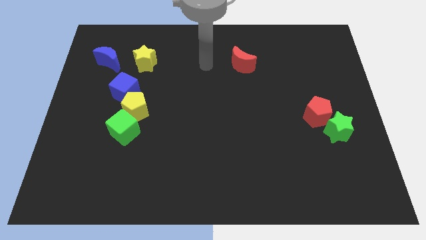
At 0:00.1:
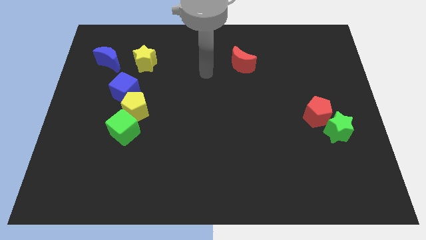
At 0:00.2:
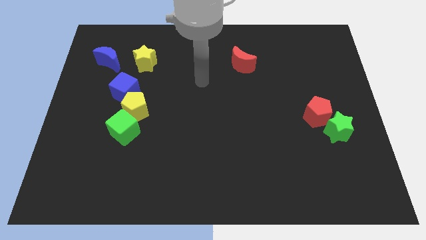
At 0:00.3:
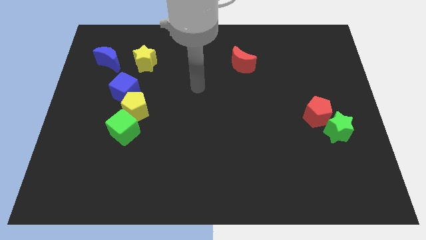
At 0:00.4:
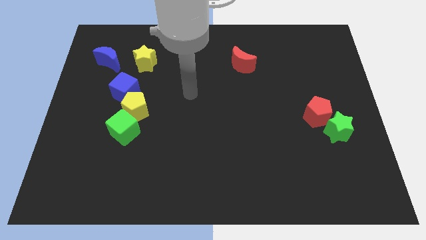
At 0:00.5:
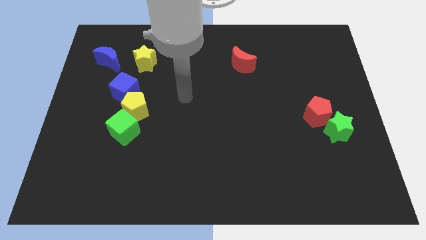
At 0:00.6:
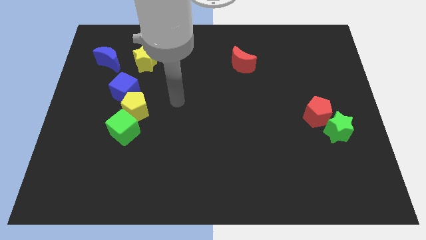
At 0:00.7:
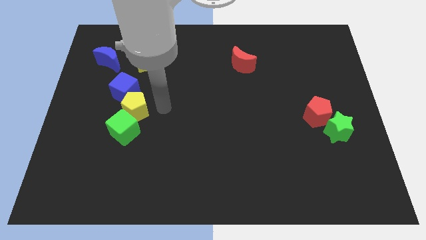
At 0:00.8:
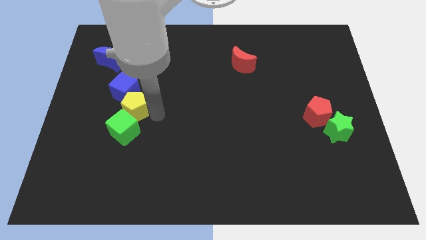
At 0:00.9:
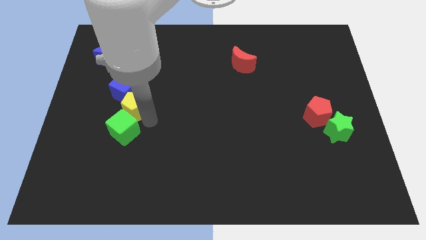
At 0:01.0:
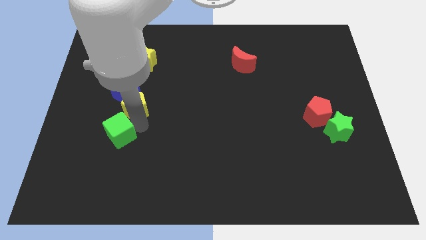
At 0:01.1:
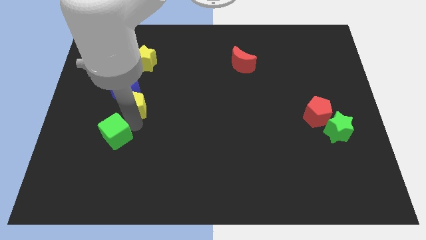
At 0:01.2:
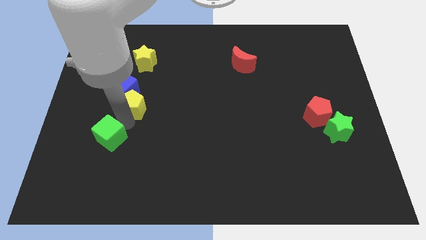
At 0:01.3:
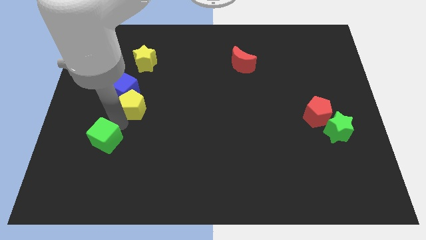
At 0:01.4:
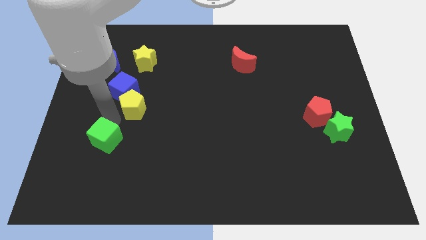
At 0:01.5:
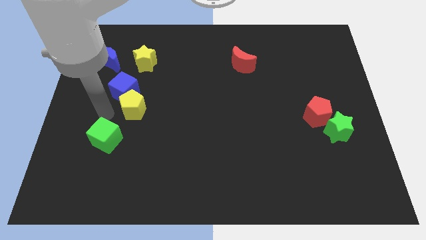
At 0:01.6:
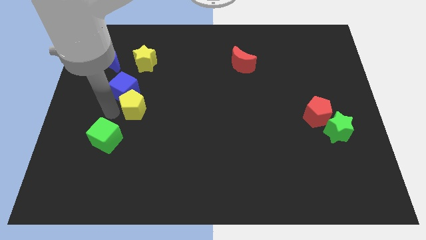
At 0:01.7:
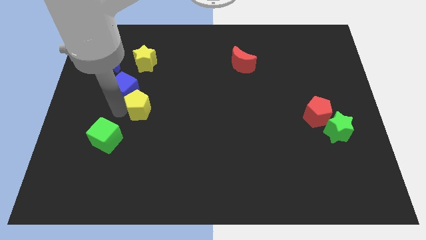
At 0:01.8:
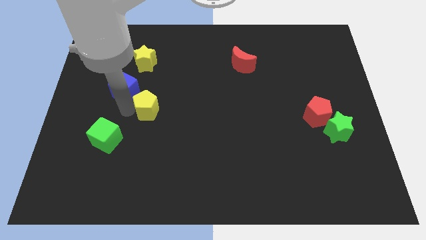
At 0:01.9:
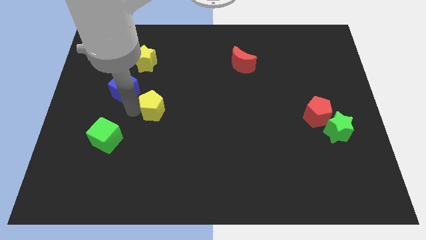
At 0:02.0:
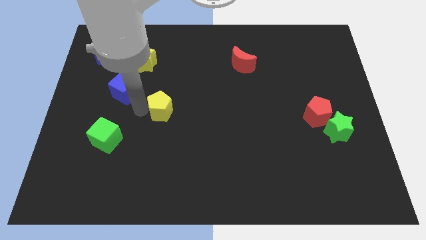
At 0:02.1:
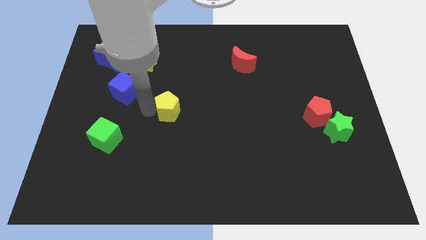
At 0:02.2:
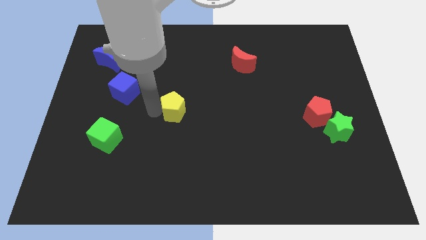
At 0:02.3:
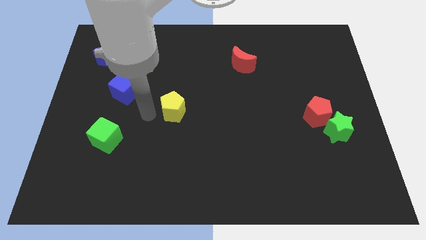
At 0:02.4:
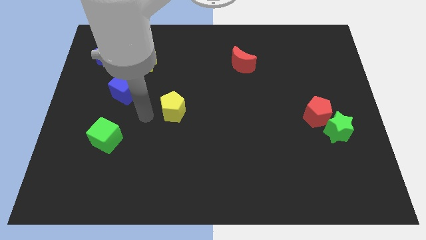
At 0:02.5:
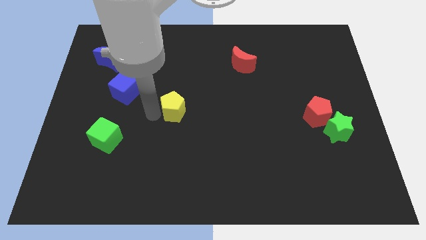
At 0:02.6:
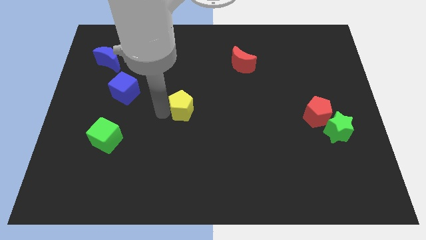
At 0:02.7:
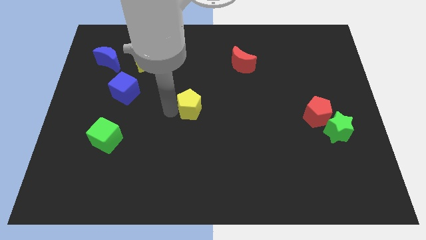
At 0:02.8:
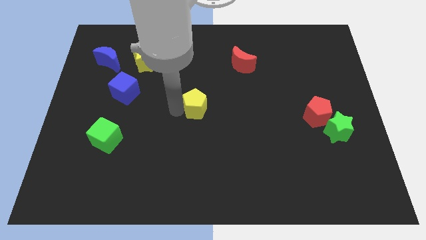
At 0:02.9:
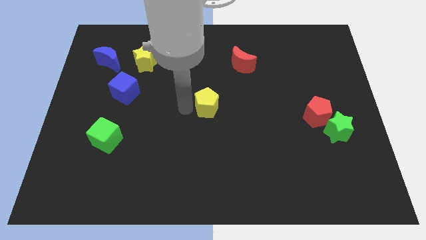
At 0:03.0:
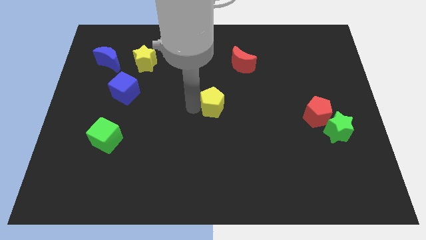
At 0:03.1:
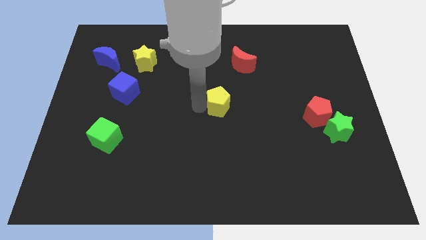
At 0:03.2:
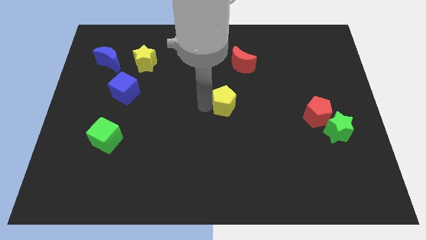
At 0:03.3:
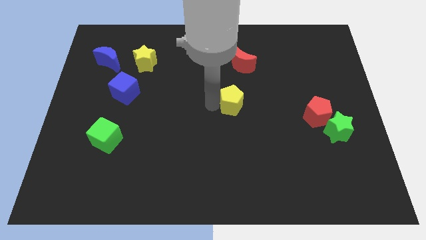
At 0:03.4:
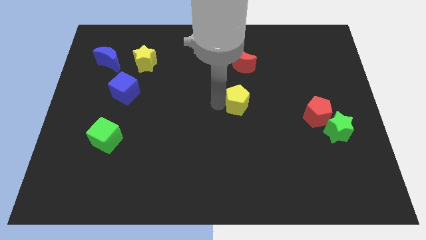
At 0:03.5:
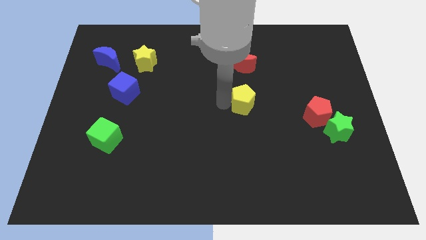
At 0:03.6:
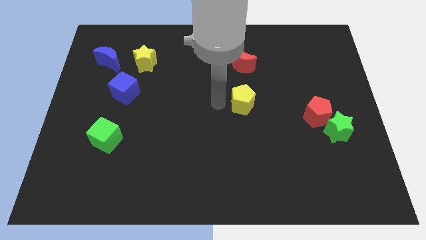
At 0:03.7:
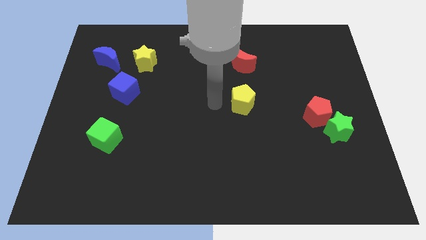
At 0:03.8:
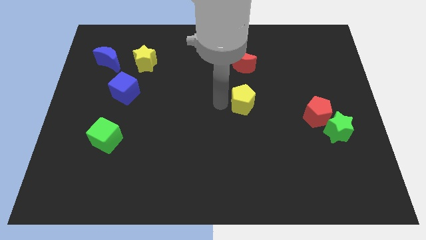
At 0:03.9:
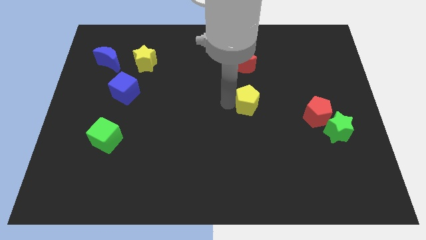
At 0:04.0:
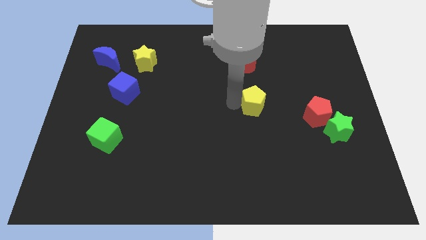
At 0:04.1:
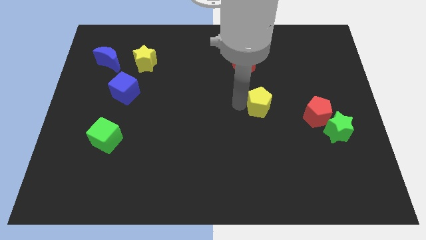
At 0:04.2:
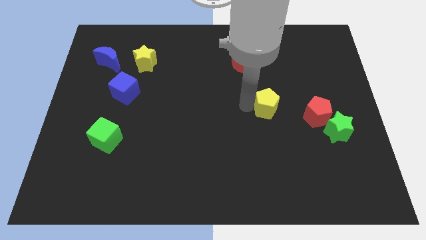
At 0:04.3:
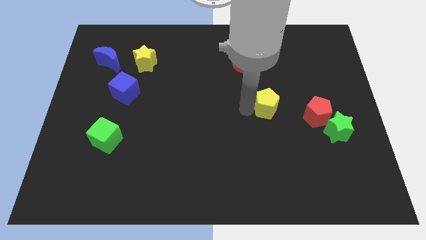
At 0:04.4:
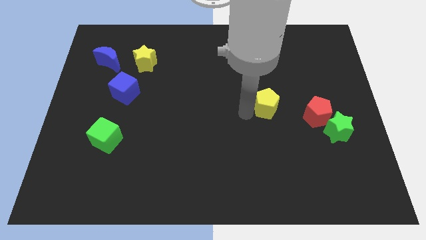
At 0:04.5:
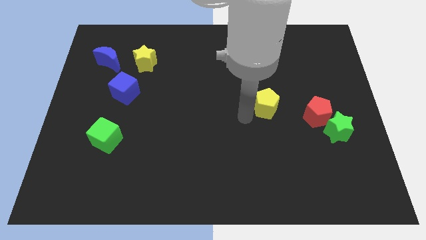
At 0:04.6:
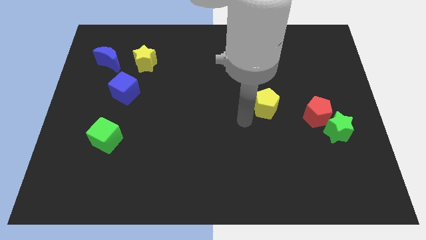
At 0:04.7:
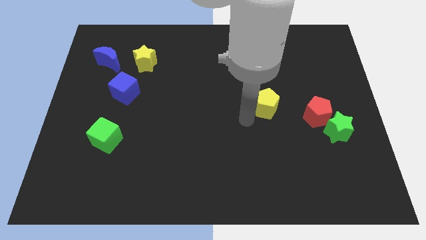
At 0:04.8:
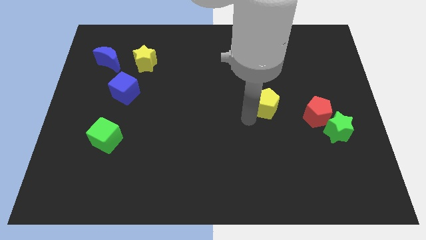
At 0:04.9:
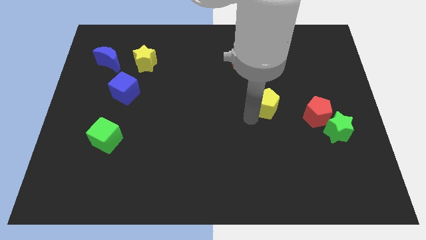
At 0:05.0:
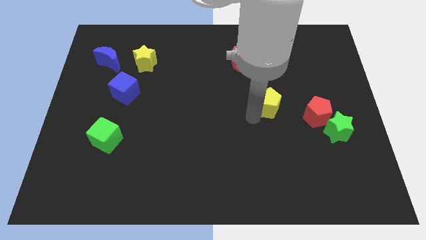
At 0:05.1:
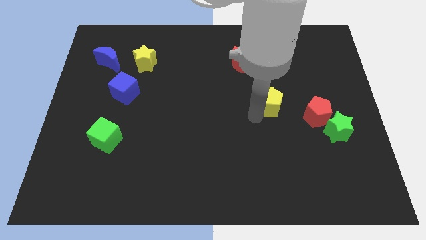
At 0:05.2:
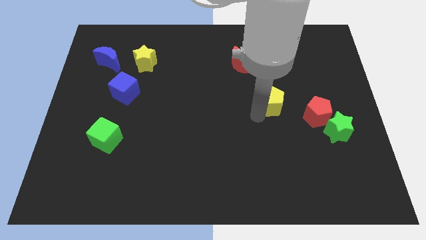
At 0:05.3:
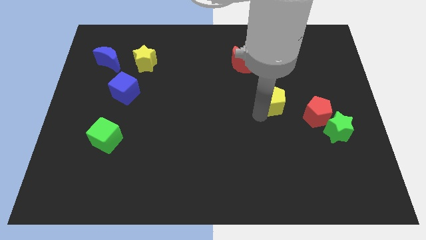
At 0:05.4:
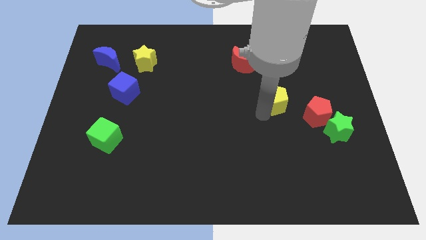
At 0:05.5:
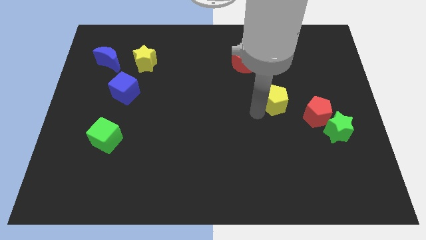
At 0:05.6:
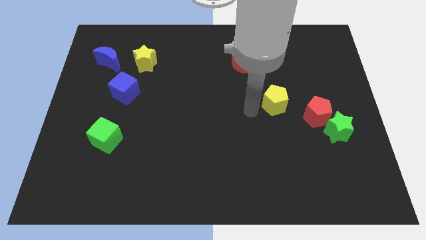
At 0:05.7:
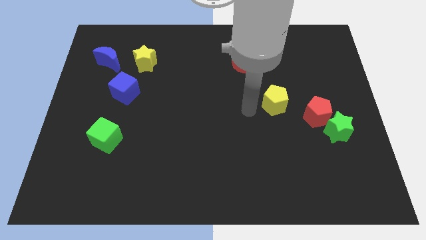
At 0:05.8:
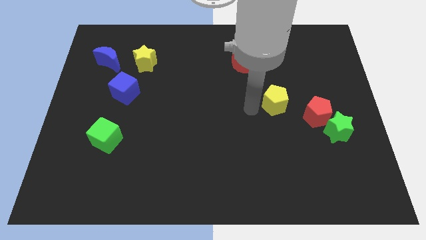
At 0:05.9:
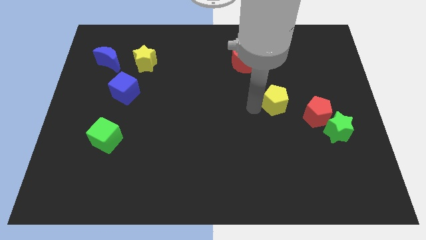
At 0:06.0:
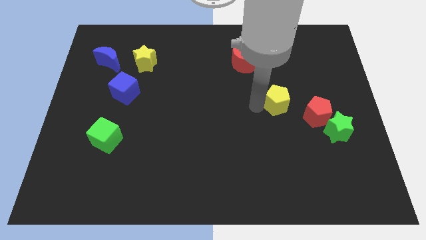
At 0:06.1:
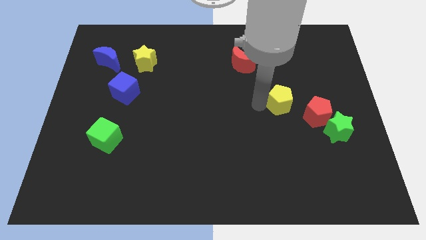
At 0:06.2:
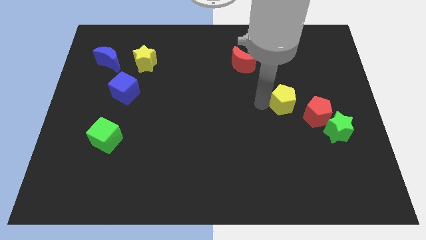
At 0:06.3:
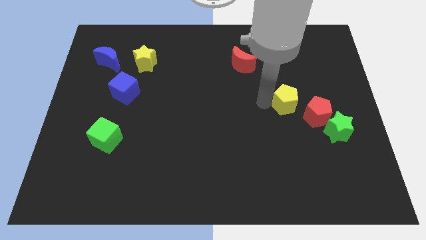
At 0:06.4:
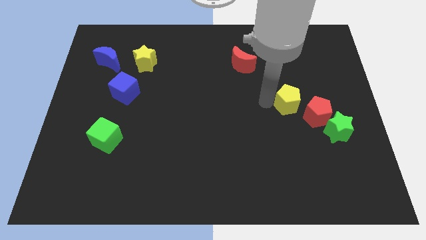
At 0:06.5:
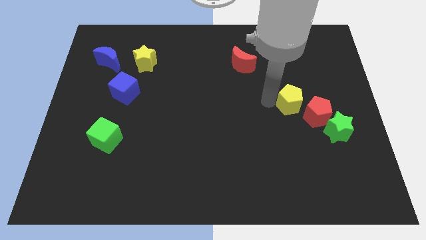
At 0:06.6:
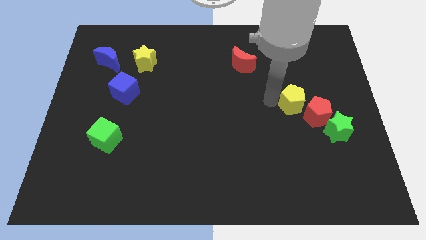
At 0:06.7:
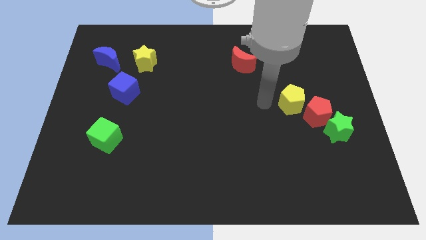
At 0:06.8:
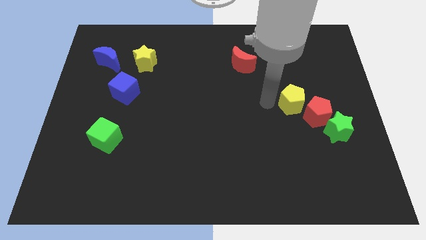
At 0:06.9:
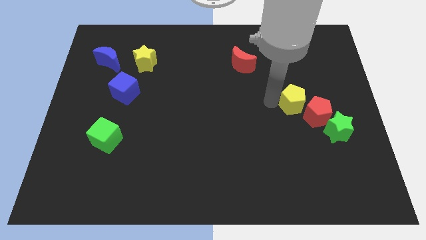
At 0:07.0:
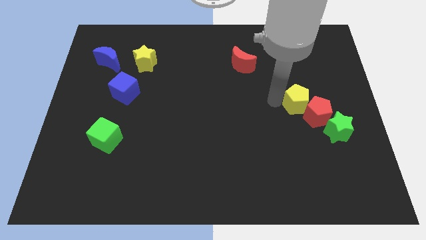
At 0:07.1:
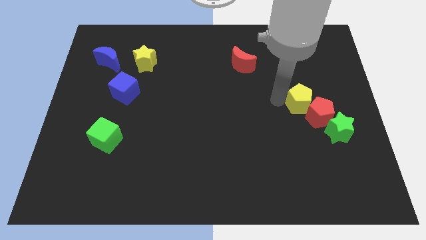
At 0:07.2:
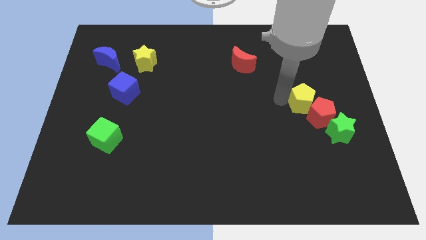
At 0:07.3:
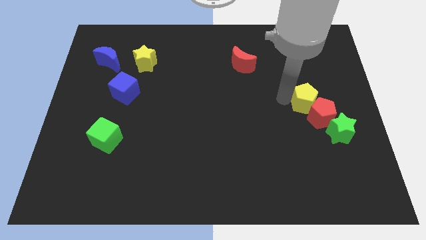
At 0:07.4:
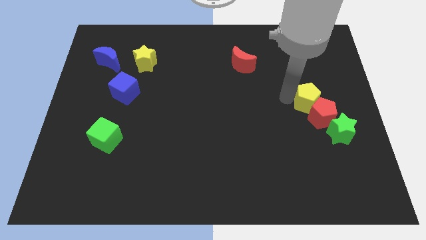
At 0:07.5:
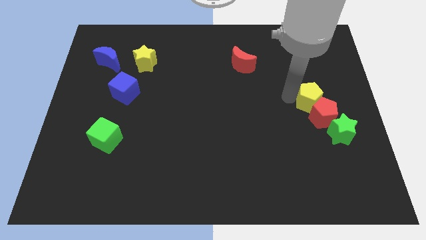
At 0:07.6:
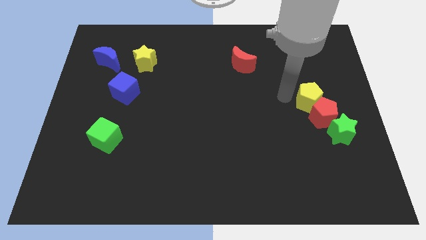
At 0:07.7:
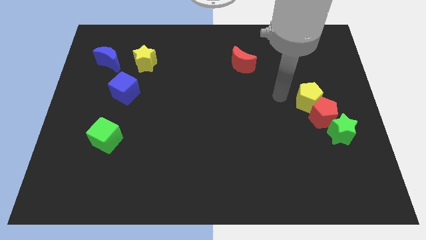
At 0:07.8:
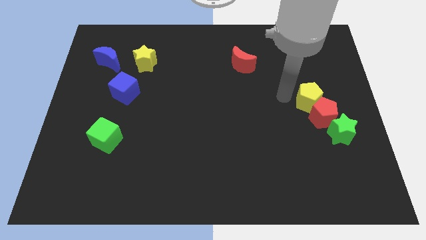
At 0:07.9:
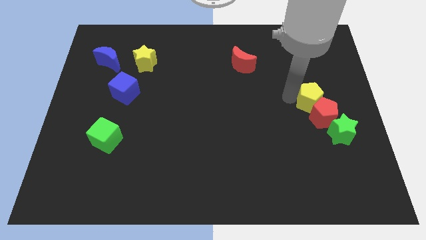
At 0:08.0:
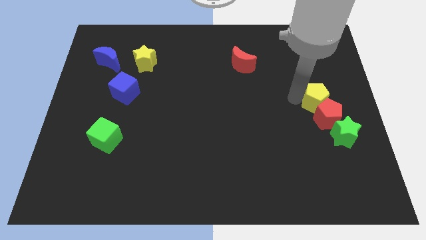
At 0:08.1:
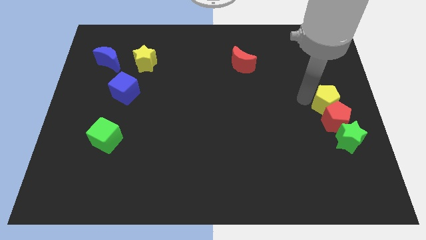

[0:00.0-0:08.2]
push the yellow pentagon to the right side of the board
